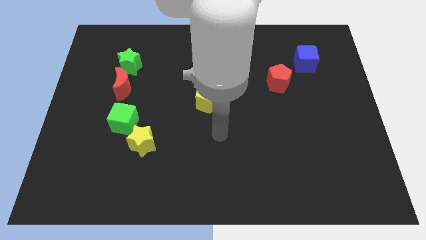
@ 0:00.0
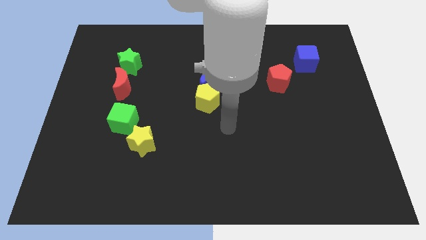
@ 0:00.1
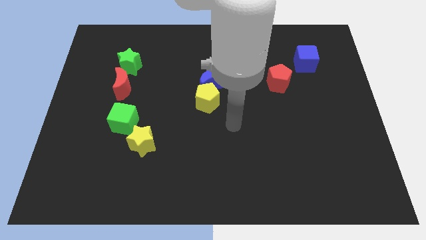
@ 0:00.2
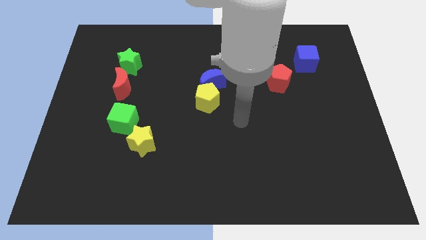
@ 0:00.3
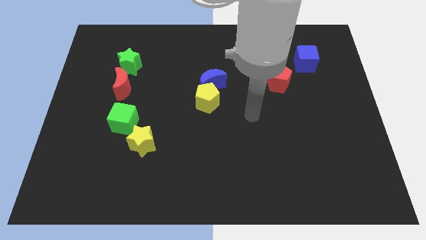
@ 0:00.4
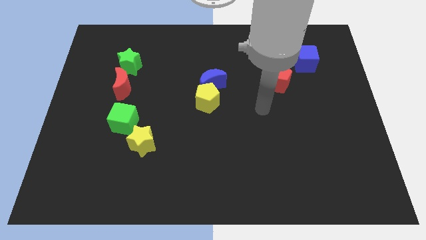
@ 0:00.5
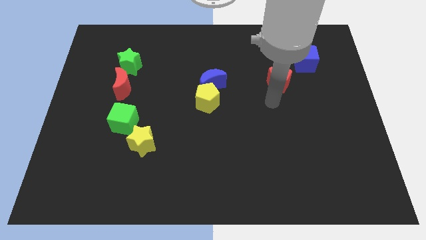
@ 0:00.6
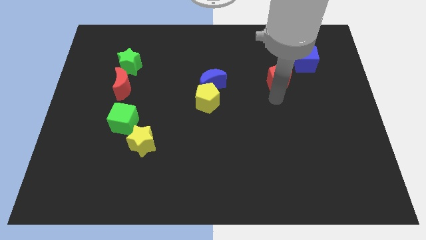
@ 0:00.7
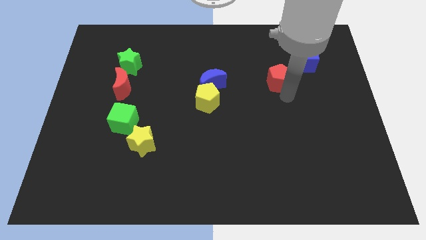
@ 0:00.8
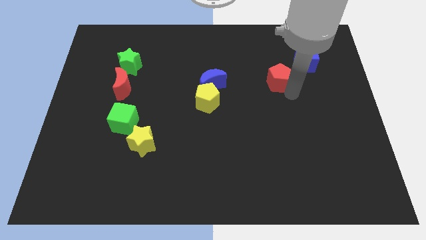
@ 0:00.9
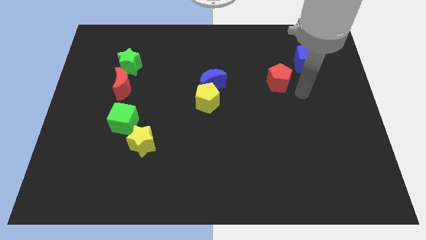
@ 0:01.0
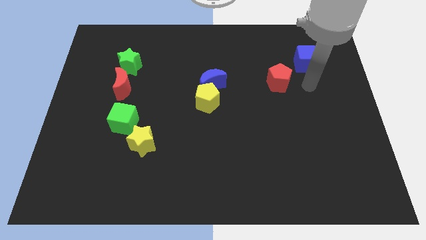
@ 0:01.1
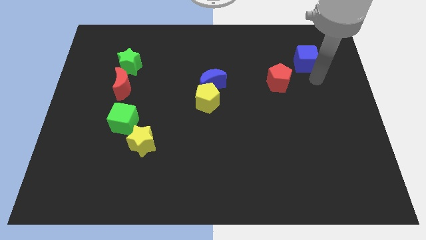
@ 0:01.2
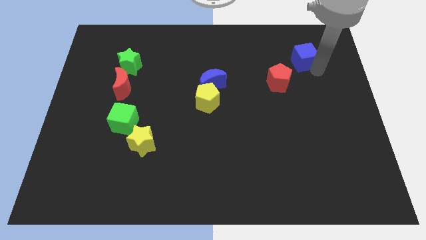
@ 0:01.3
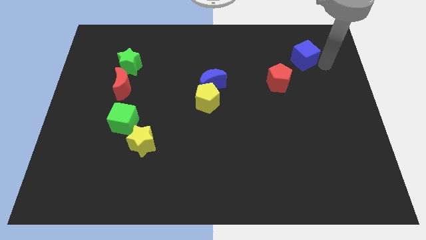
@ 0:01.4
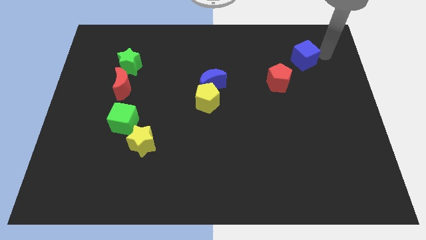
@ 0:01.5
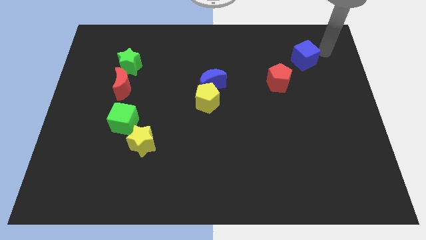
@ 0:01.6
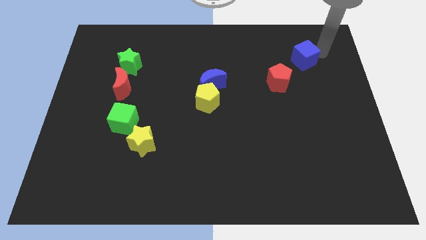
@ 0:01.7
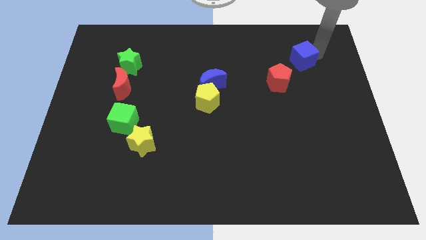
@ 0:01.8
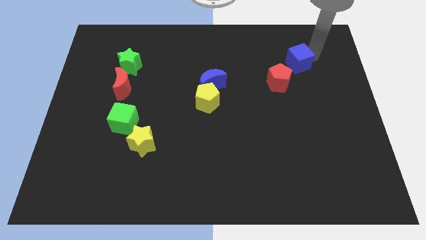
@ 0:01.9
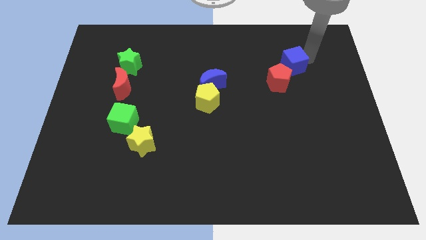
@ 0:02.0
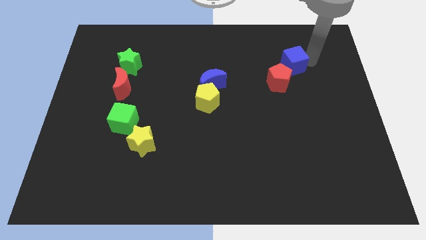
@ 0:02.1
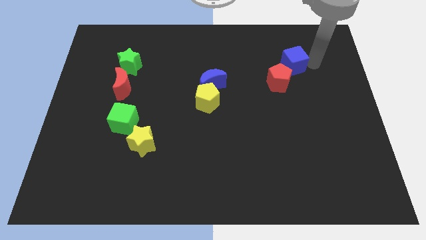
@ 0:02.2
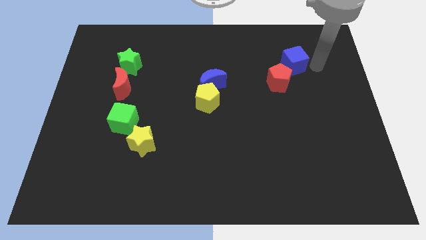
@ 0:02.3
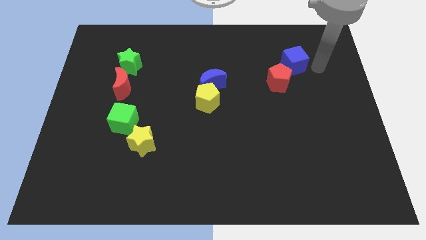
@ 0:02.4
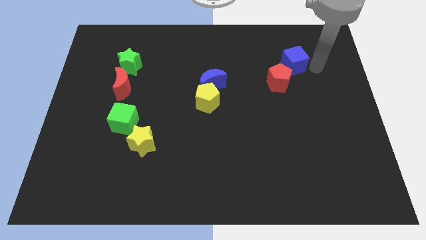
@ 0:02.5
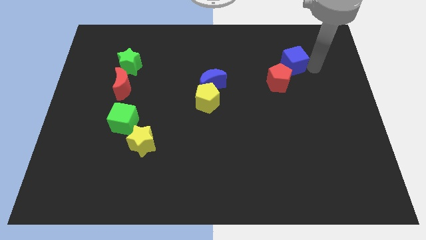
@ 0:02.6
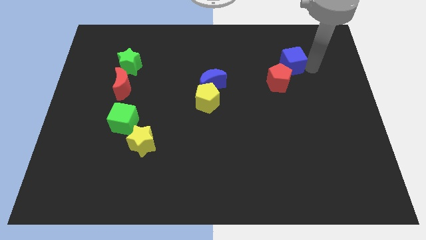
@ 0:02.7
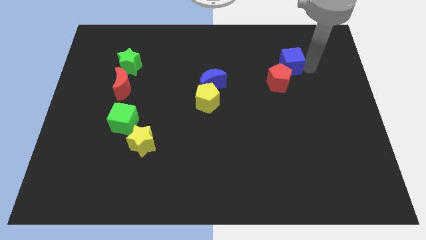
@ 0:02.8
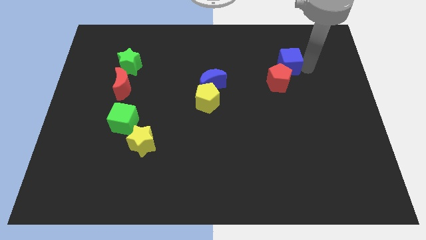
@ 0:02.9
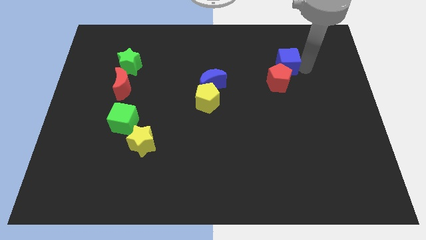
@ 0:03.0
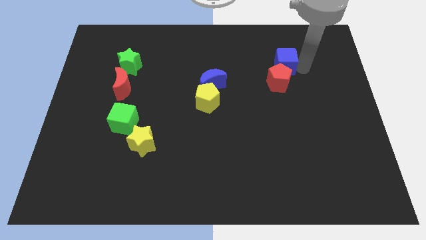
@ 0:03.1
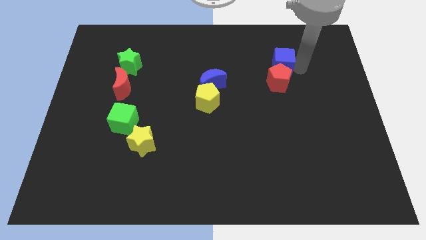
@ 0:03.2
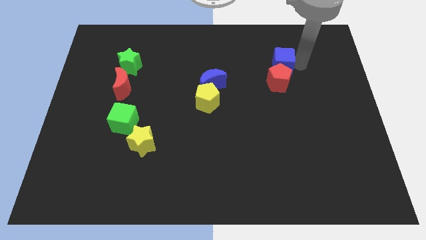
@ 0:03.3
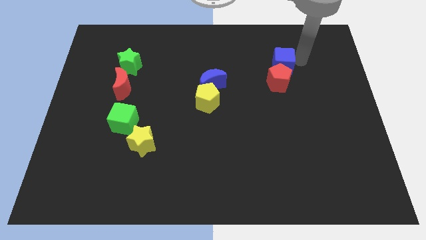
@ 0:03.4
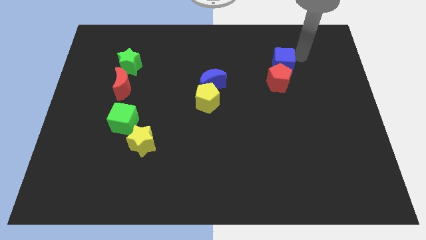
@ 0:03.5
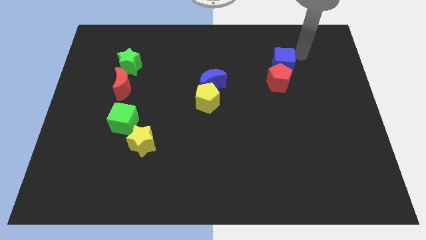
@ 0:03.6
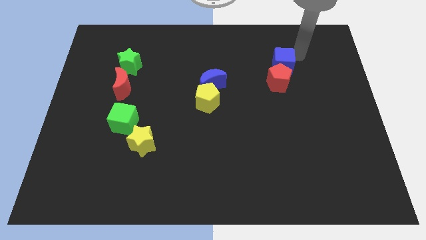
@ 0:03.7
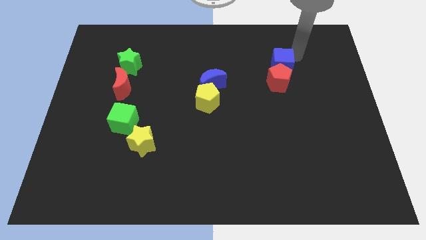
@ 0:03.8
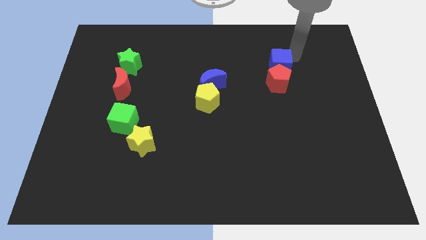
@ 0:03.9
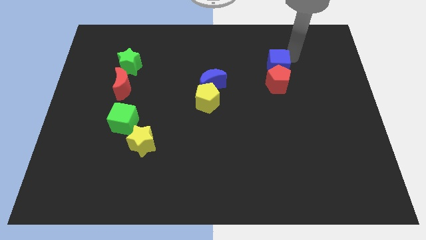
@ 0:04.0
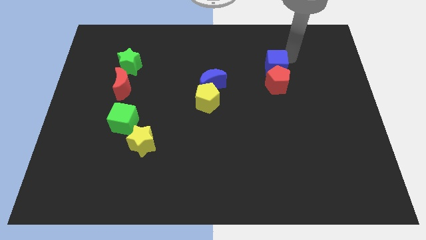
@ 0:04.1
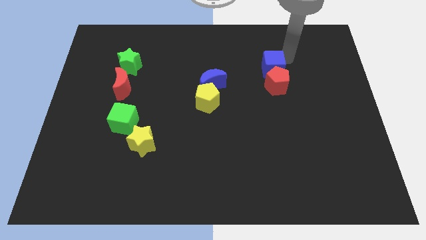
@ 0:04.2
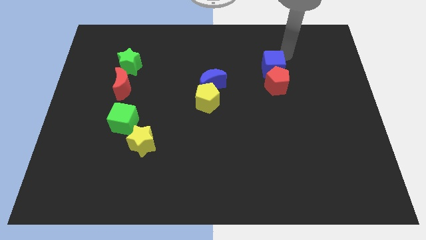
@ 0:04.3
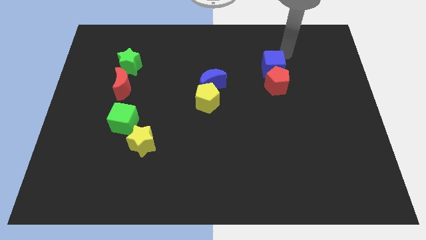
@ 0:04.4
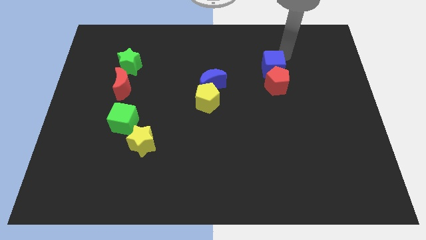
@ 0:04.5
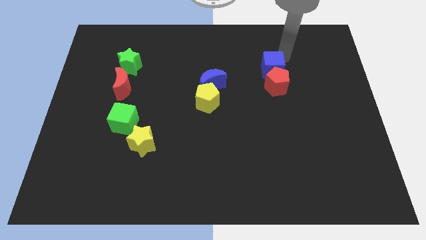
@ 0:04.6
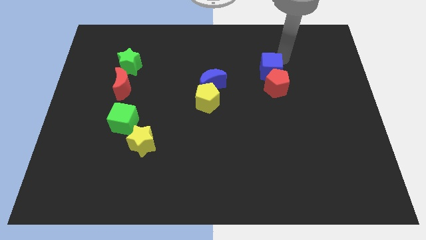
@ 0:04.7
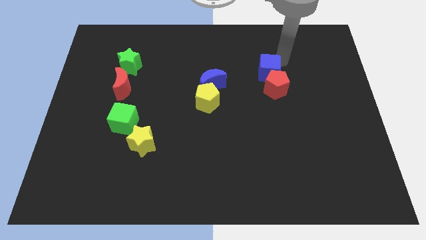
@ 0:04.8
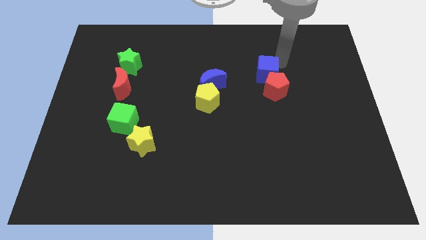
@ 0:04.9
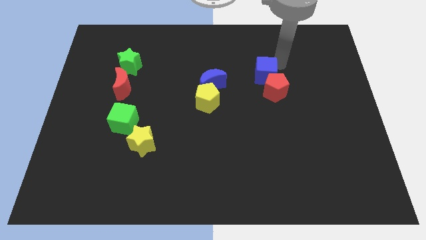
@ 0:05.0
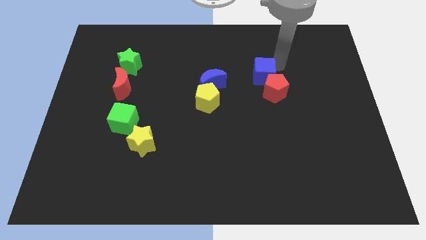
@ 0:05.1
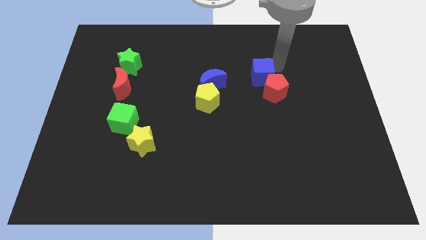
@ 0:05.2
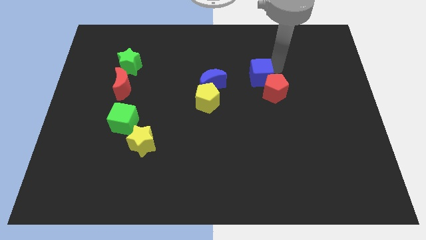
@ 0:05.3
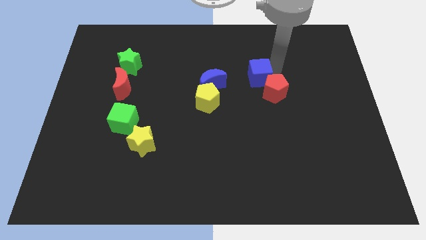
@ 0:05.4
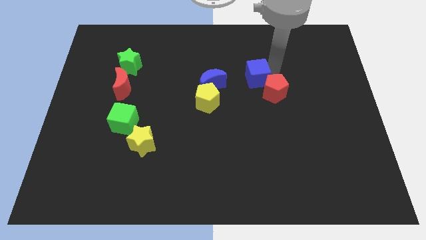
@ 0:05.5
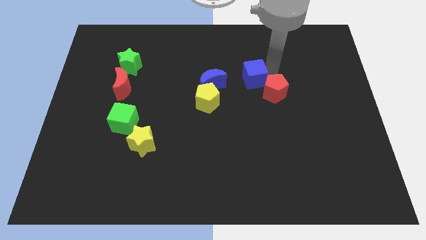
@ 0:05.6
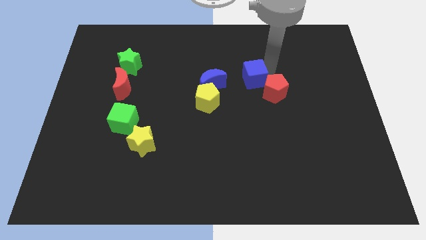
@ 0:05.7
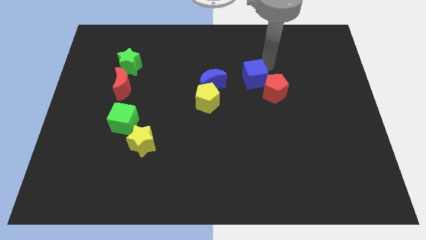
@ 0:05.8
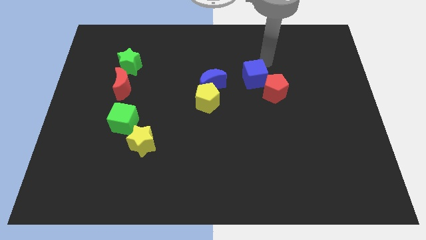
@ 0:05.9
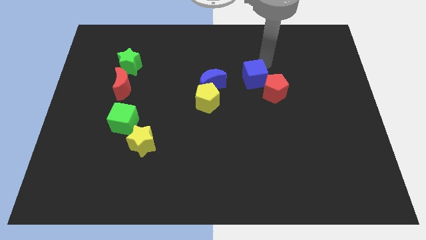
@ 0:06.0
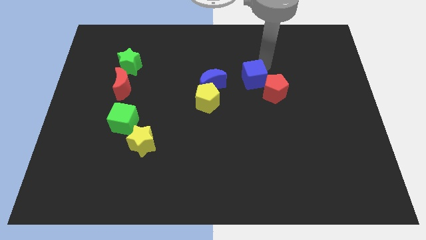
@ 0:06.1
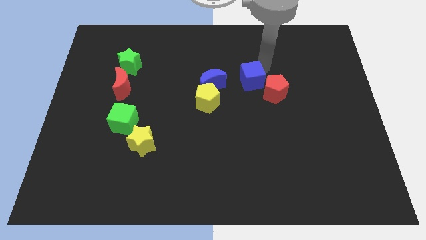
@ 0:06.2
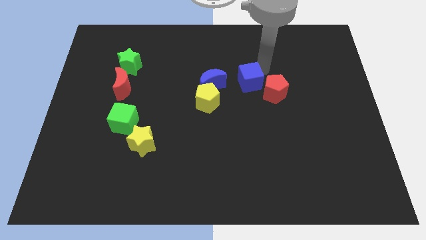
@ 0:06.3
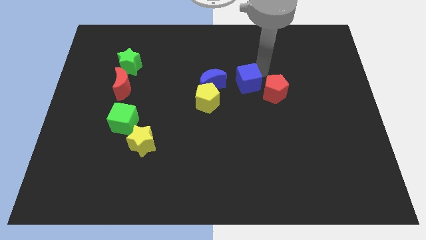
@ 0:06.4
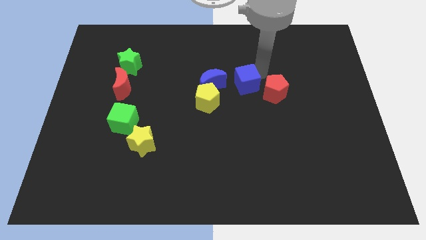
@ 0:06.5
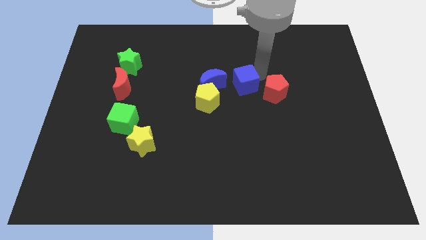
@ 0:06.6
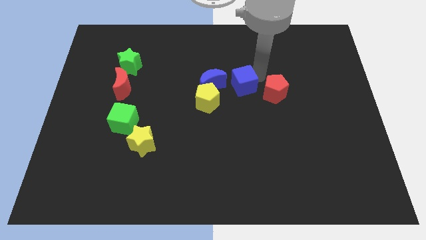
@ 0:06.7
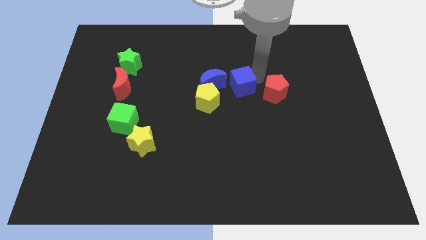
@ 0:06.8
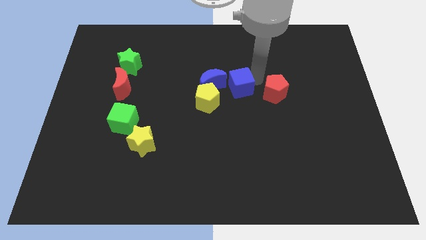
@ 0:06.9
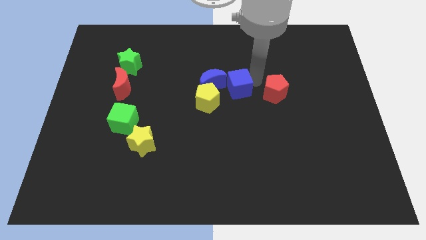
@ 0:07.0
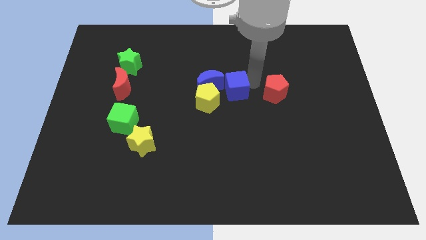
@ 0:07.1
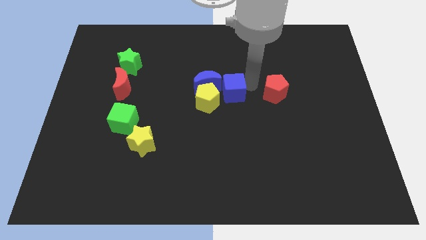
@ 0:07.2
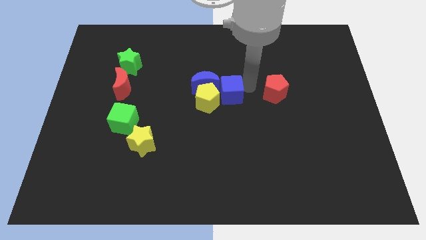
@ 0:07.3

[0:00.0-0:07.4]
push the blue cube downwards and left

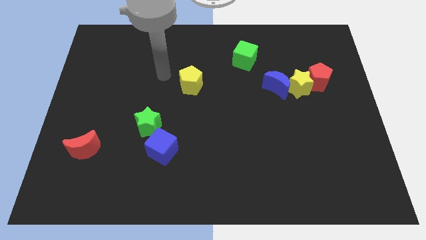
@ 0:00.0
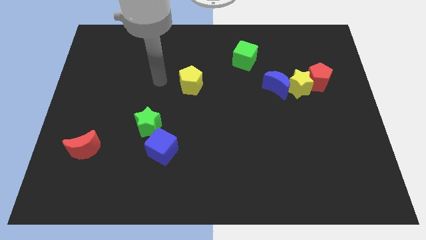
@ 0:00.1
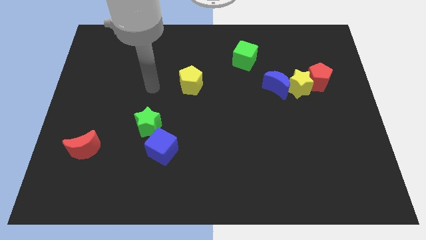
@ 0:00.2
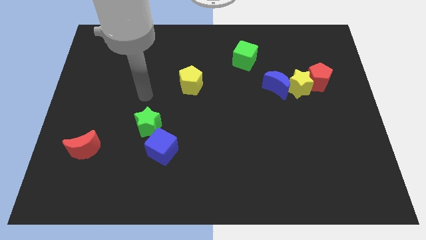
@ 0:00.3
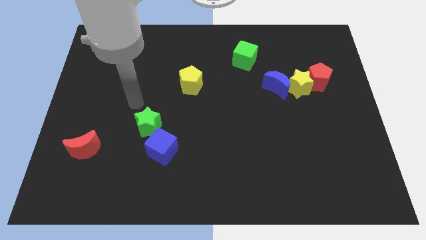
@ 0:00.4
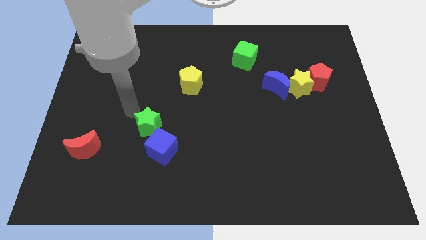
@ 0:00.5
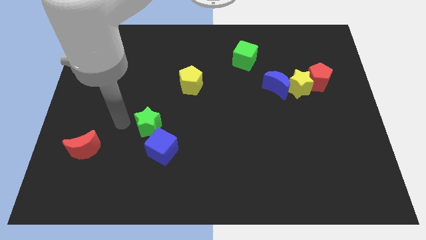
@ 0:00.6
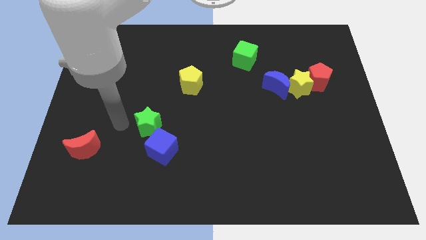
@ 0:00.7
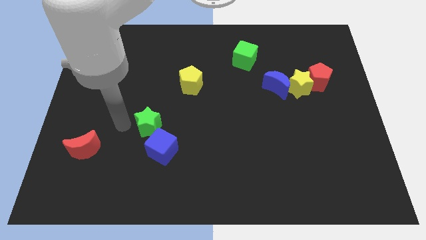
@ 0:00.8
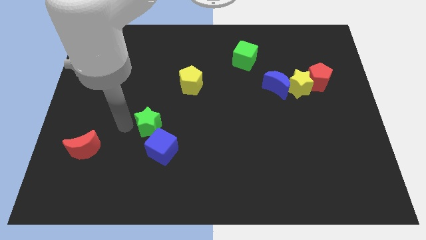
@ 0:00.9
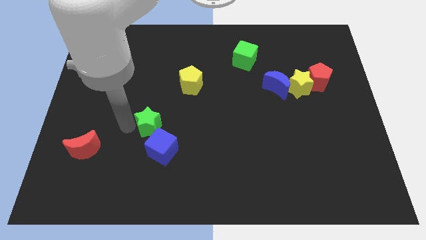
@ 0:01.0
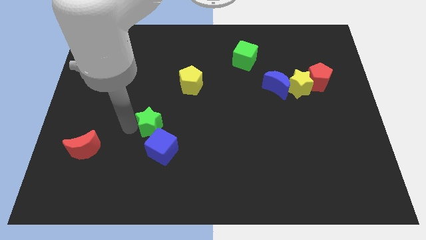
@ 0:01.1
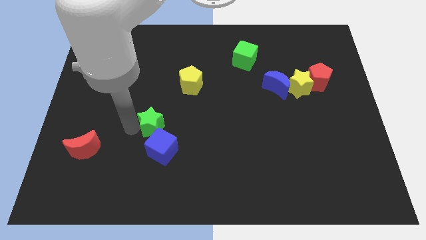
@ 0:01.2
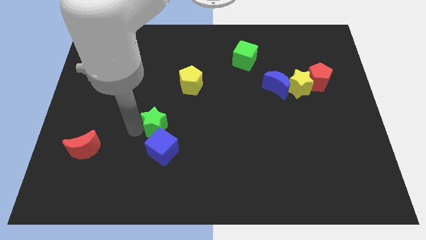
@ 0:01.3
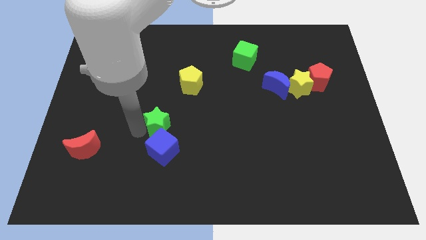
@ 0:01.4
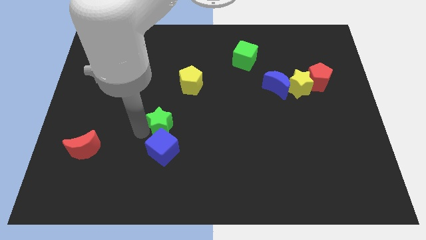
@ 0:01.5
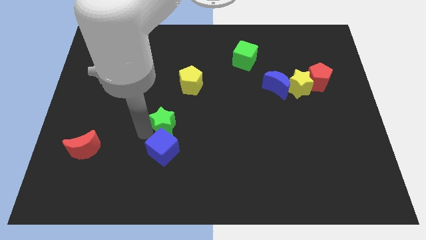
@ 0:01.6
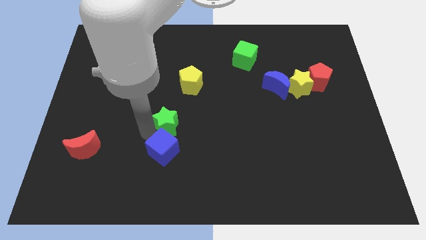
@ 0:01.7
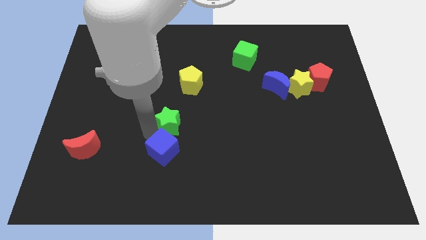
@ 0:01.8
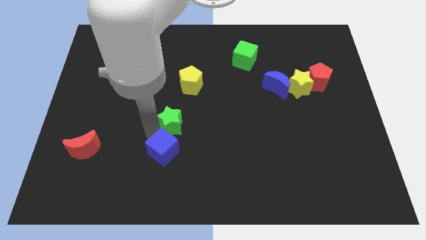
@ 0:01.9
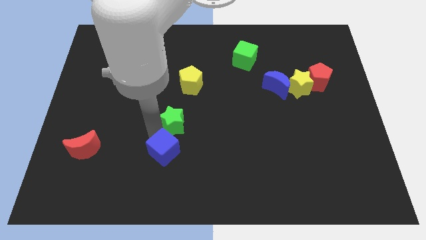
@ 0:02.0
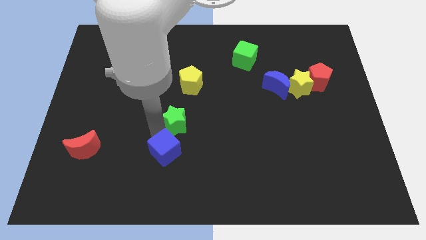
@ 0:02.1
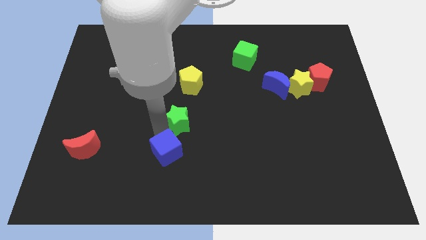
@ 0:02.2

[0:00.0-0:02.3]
push the green star right a bit
